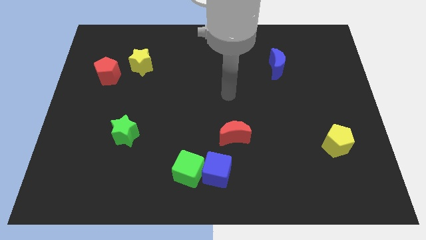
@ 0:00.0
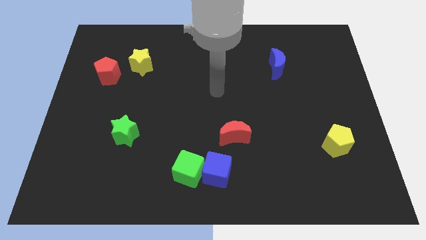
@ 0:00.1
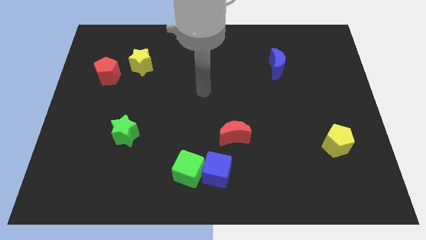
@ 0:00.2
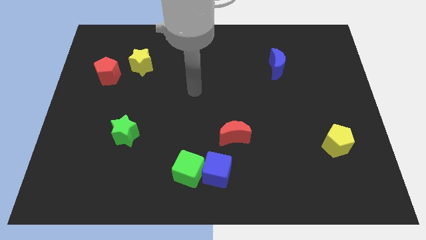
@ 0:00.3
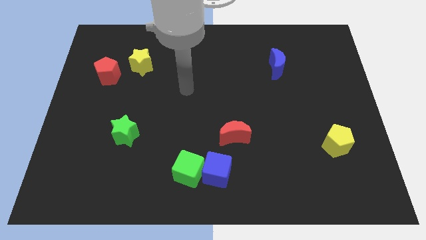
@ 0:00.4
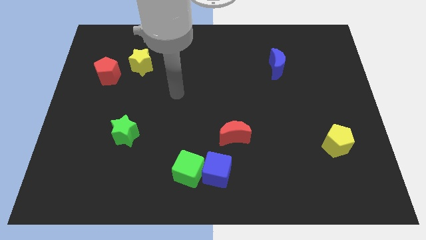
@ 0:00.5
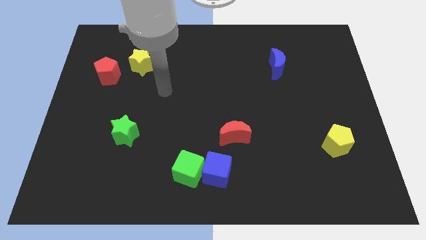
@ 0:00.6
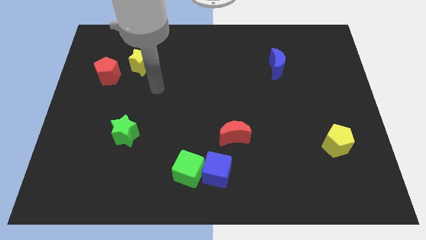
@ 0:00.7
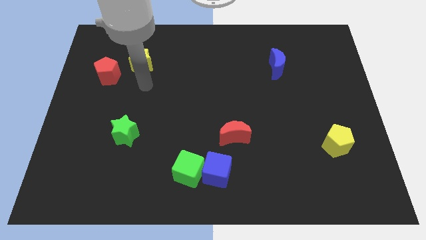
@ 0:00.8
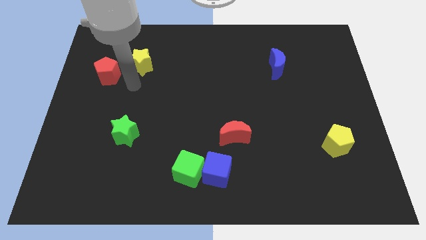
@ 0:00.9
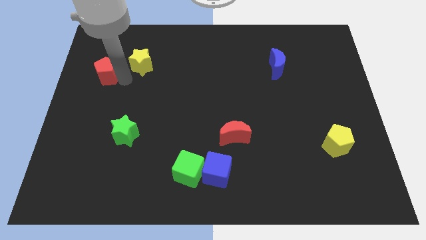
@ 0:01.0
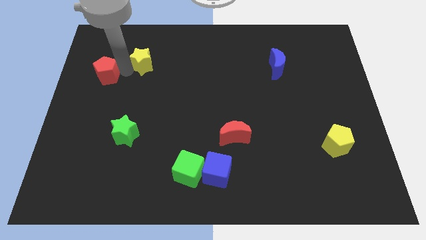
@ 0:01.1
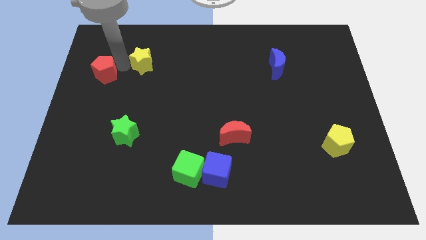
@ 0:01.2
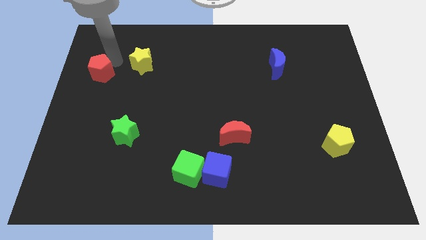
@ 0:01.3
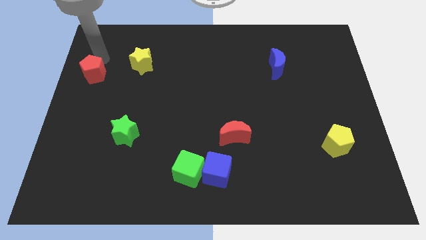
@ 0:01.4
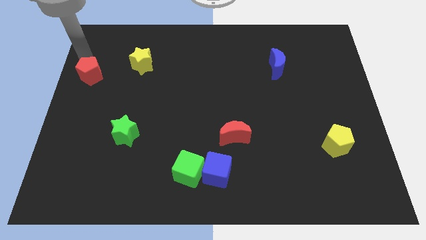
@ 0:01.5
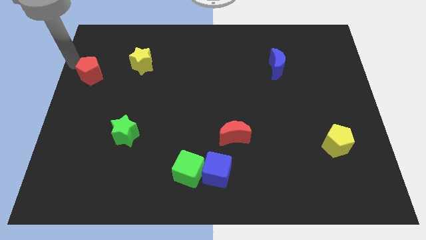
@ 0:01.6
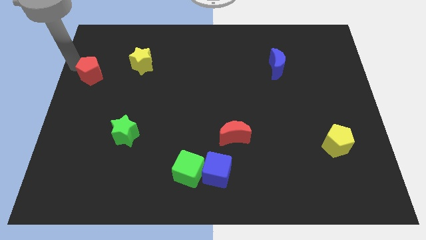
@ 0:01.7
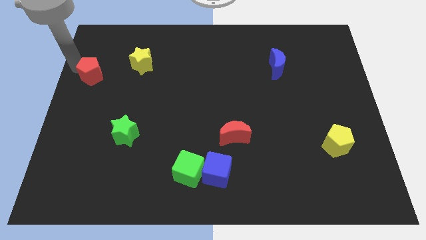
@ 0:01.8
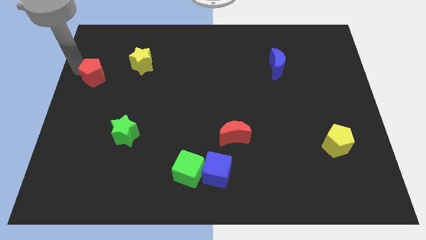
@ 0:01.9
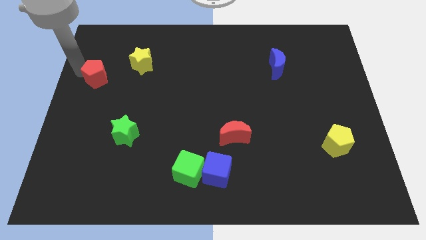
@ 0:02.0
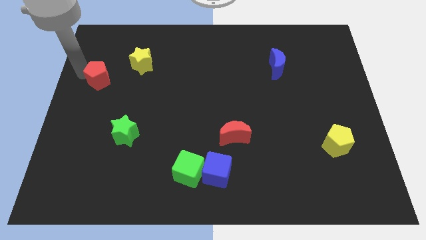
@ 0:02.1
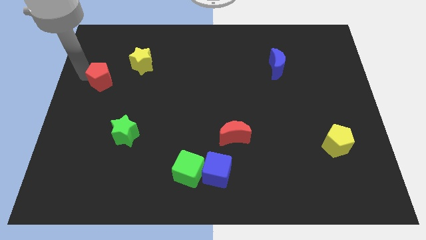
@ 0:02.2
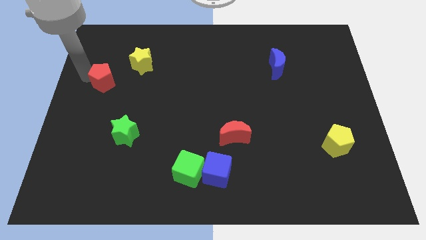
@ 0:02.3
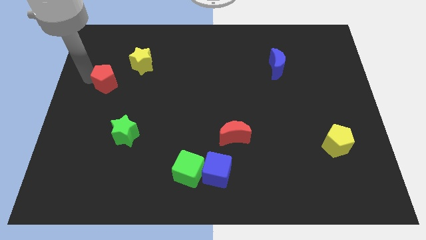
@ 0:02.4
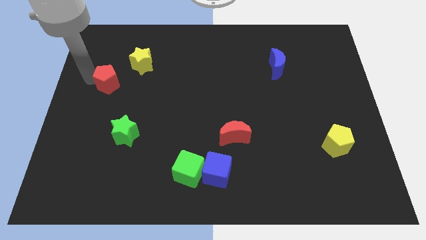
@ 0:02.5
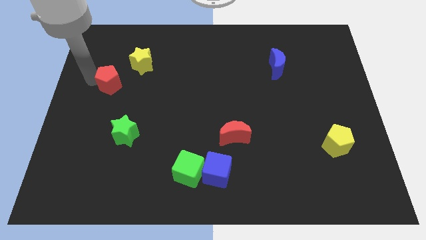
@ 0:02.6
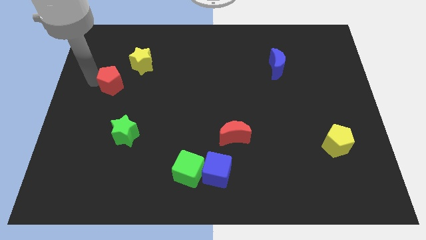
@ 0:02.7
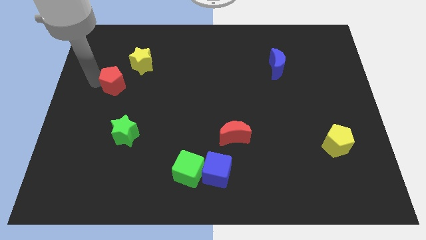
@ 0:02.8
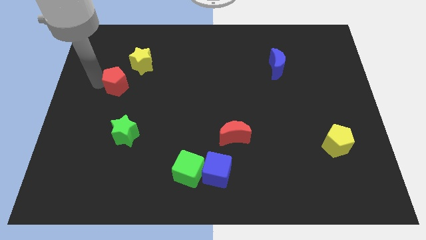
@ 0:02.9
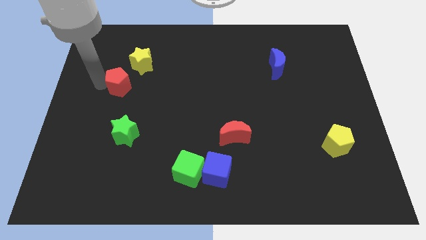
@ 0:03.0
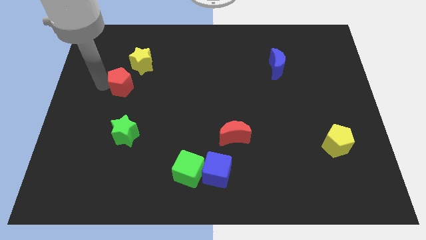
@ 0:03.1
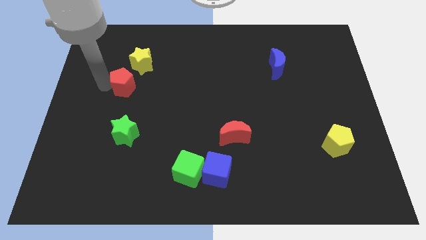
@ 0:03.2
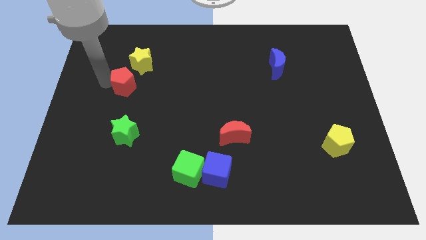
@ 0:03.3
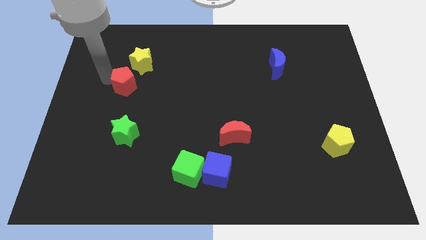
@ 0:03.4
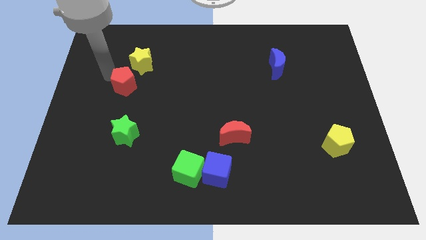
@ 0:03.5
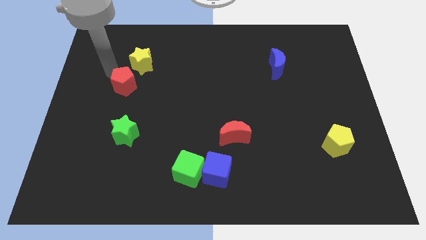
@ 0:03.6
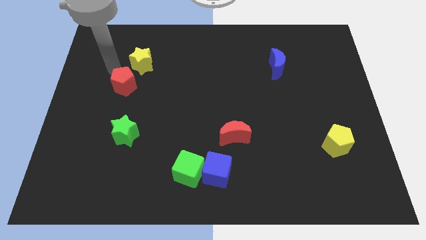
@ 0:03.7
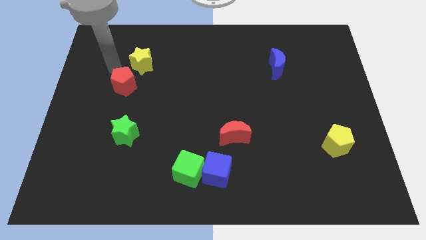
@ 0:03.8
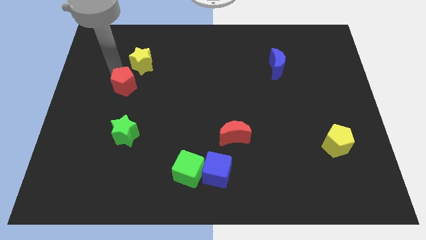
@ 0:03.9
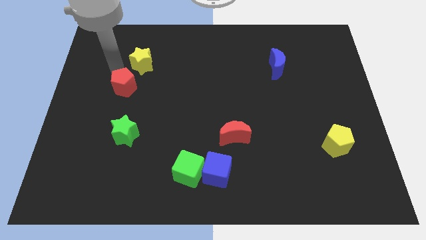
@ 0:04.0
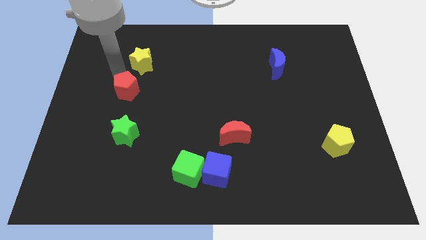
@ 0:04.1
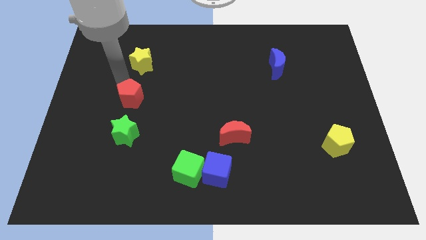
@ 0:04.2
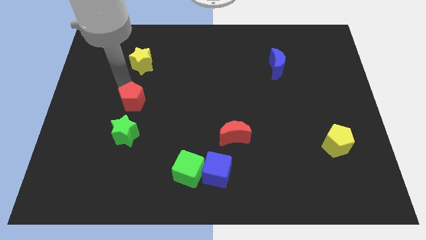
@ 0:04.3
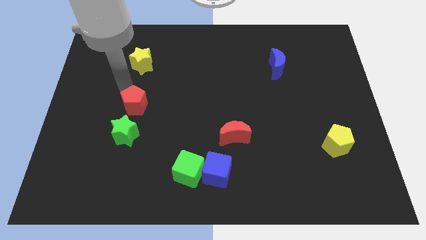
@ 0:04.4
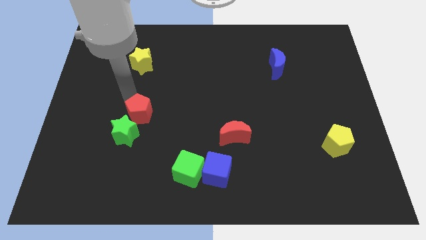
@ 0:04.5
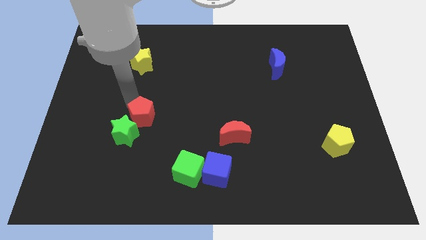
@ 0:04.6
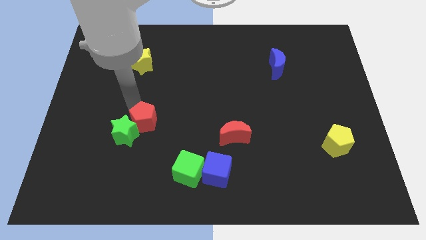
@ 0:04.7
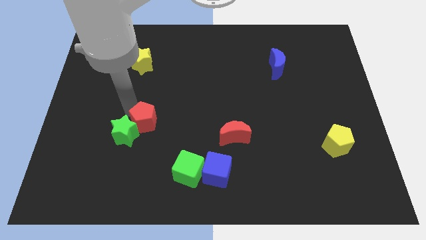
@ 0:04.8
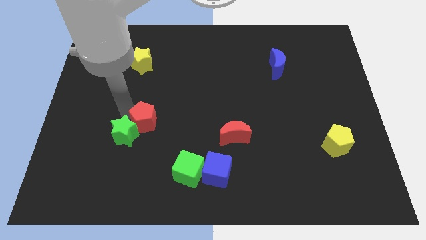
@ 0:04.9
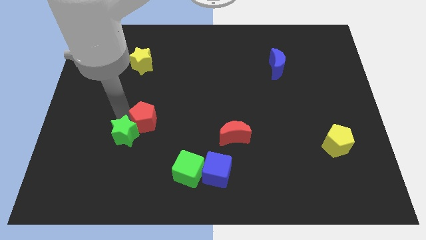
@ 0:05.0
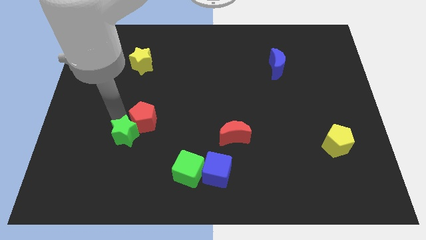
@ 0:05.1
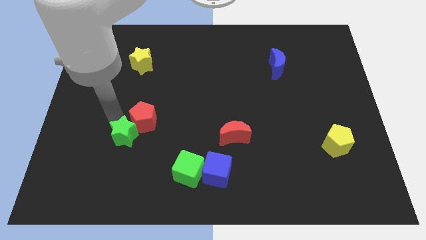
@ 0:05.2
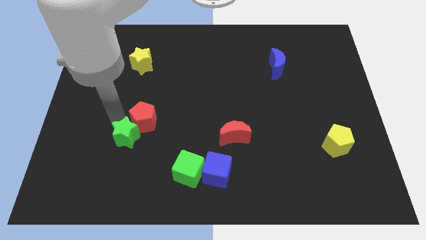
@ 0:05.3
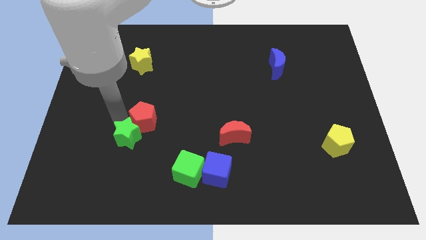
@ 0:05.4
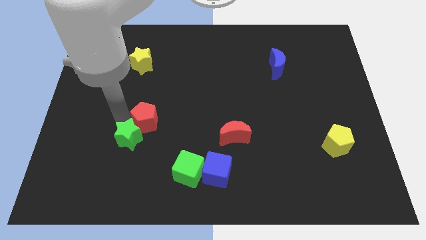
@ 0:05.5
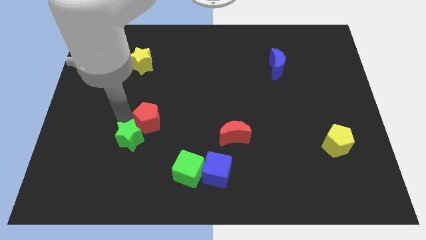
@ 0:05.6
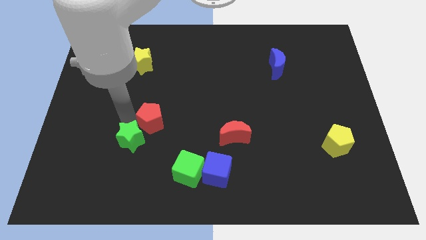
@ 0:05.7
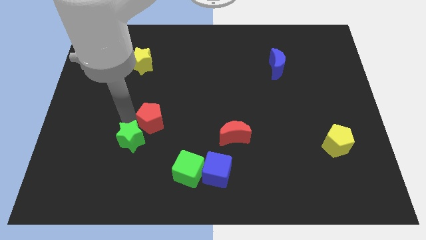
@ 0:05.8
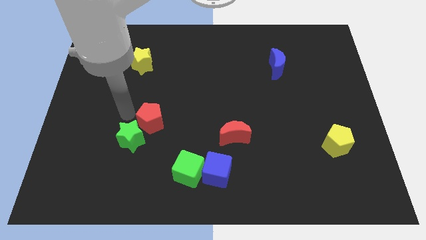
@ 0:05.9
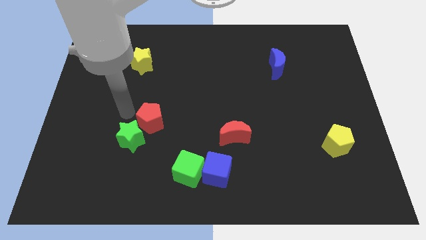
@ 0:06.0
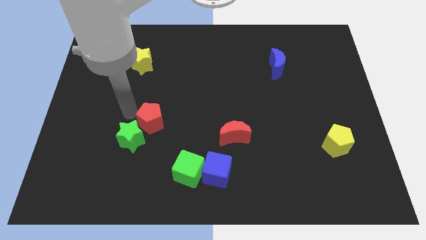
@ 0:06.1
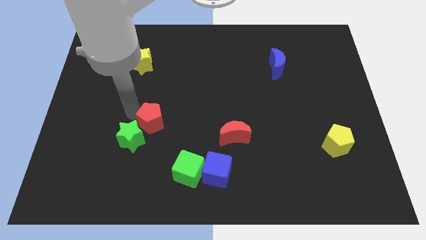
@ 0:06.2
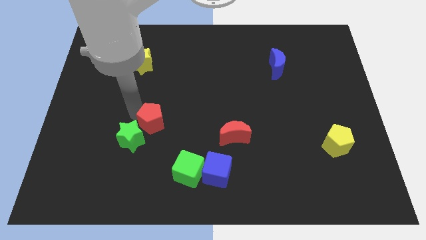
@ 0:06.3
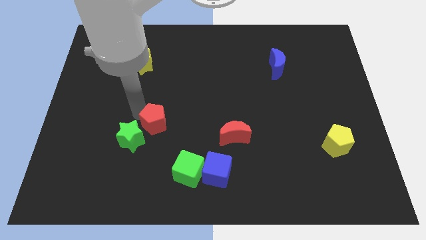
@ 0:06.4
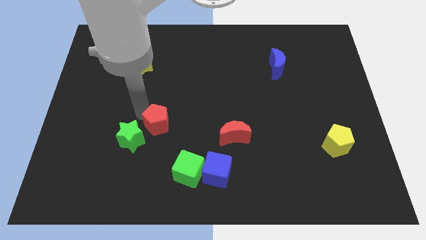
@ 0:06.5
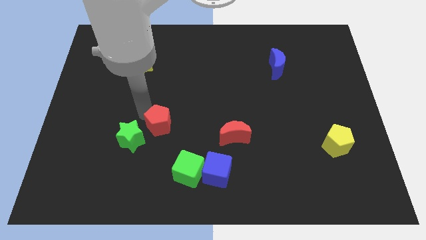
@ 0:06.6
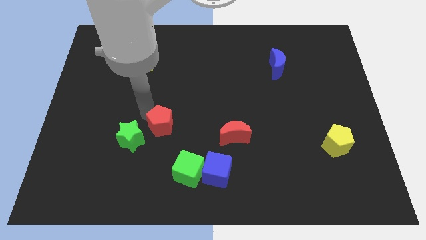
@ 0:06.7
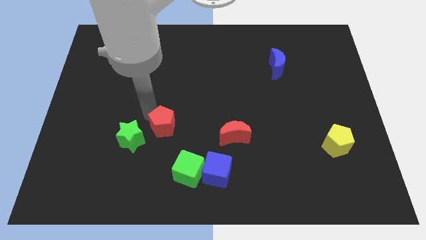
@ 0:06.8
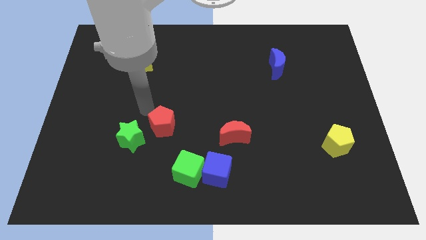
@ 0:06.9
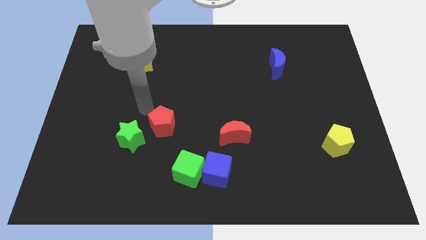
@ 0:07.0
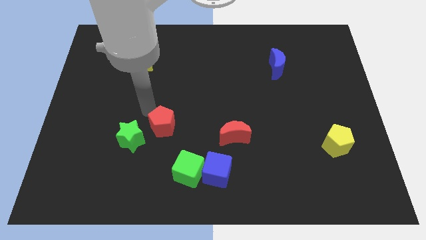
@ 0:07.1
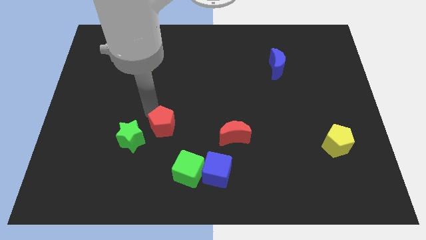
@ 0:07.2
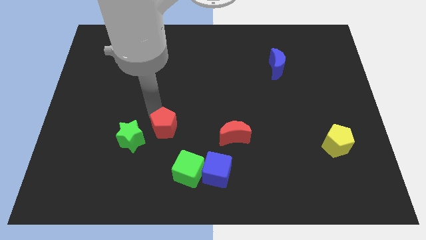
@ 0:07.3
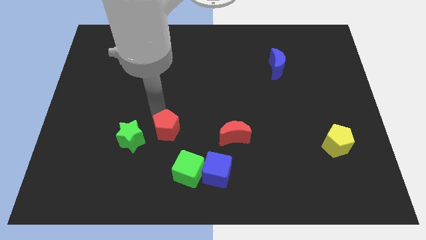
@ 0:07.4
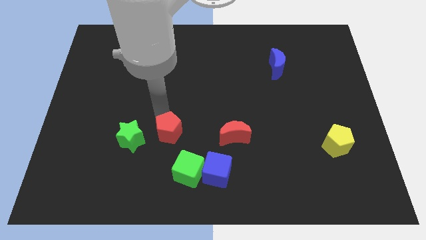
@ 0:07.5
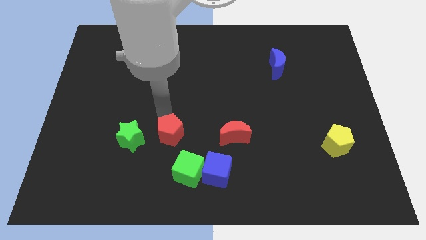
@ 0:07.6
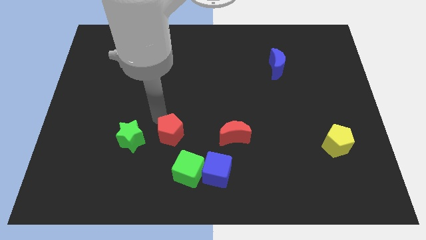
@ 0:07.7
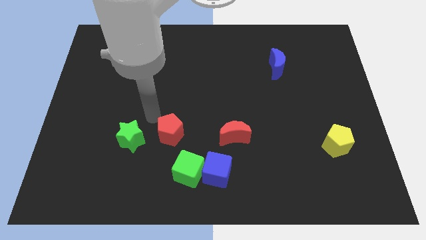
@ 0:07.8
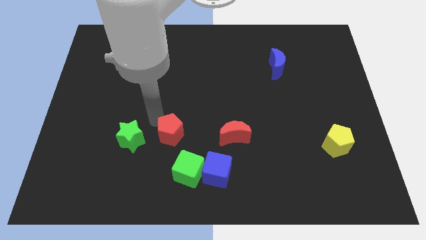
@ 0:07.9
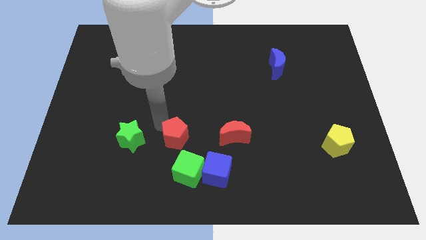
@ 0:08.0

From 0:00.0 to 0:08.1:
slide the red pentagon diagonally up and to the left of the blue cube
